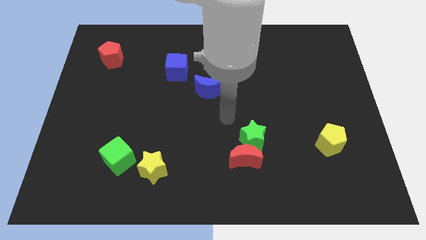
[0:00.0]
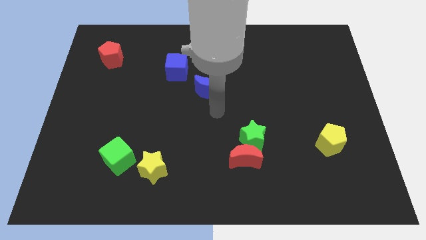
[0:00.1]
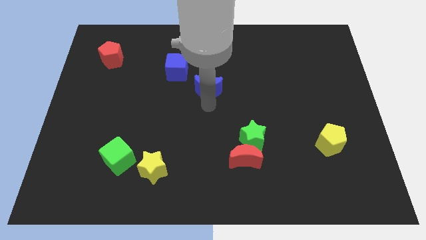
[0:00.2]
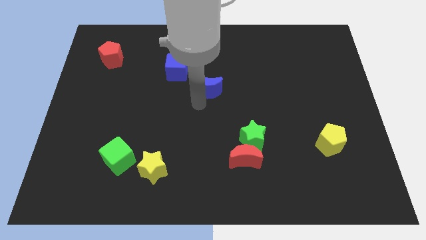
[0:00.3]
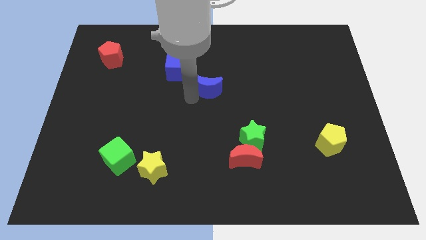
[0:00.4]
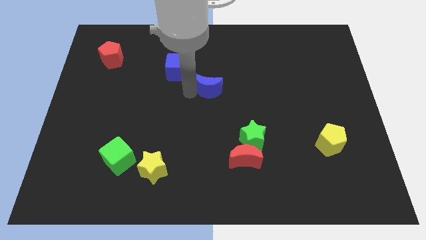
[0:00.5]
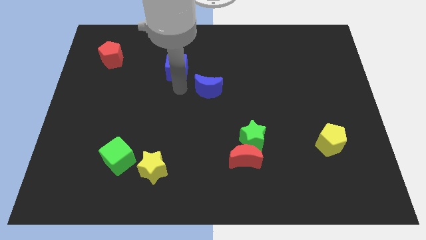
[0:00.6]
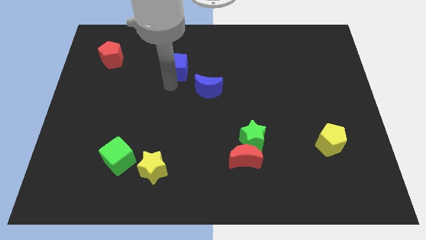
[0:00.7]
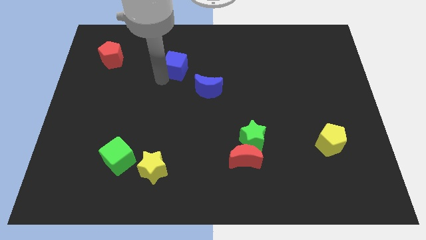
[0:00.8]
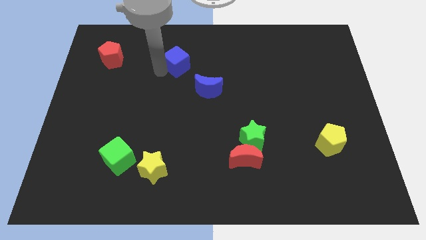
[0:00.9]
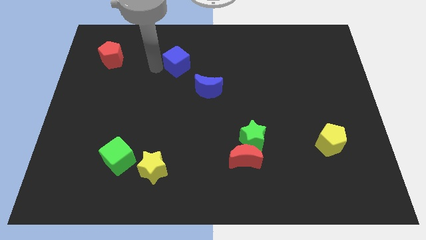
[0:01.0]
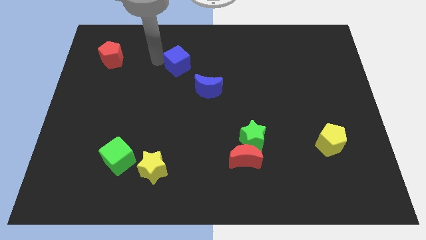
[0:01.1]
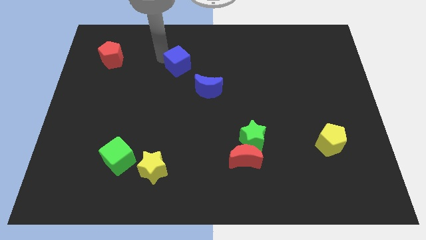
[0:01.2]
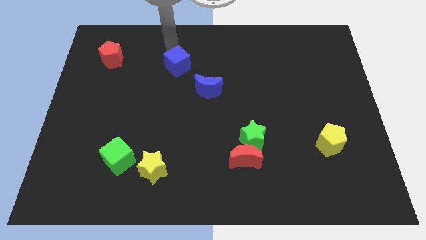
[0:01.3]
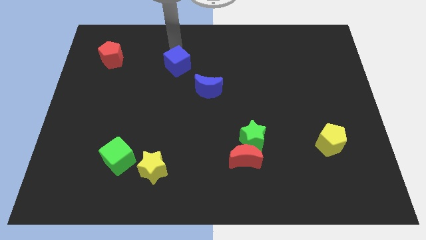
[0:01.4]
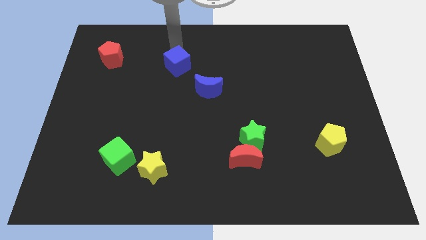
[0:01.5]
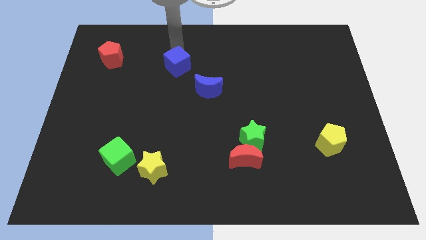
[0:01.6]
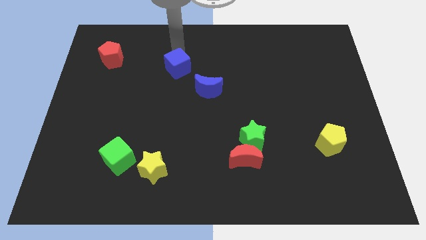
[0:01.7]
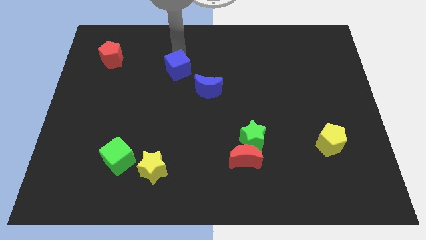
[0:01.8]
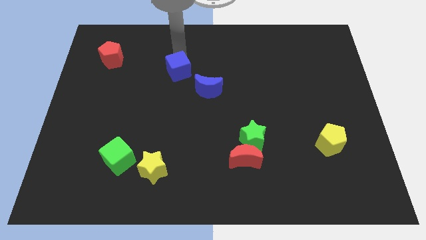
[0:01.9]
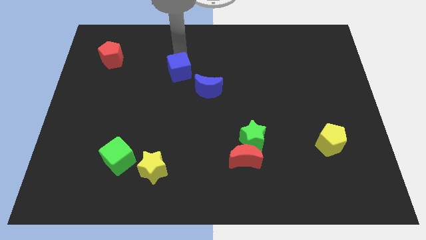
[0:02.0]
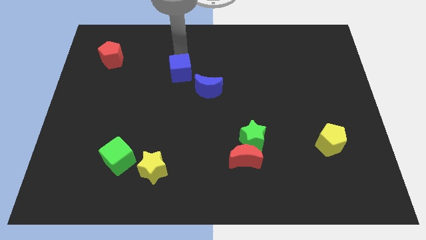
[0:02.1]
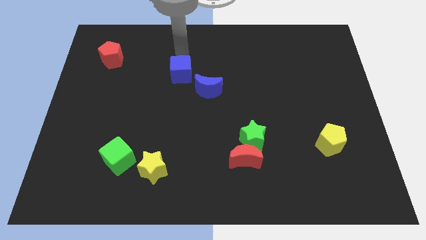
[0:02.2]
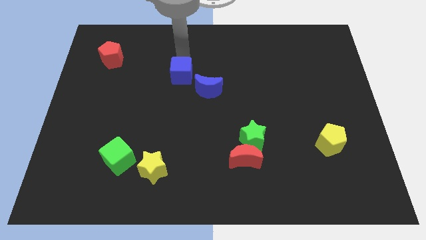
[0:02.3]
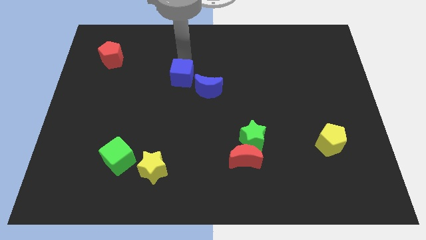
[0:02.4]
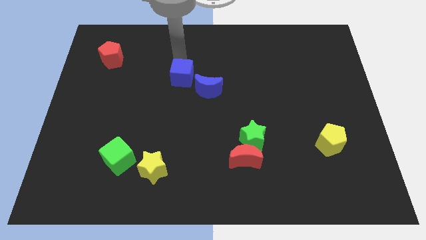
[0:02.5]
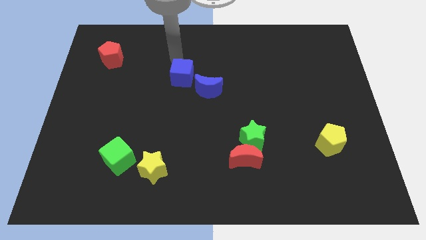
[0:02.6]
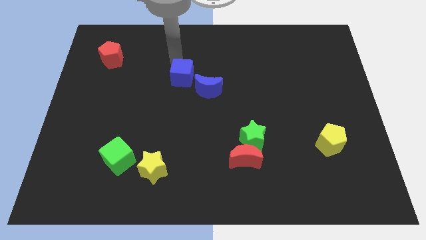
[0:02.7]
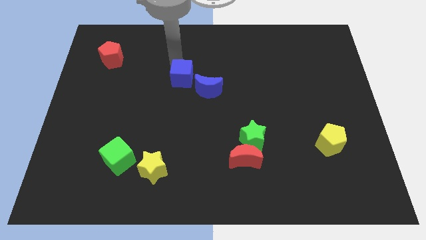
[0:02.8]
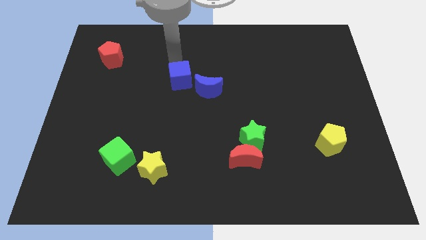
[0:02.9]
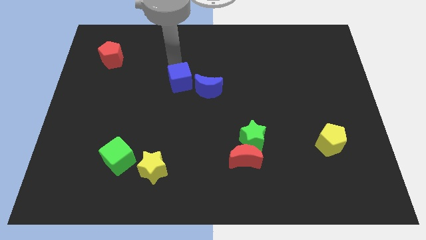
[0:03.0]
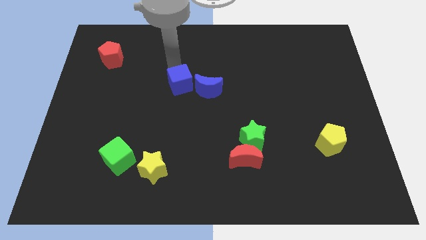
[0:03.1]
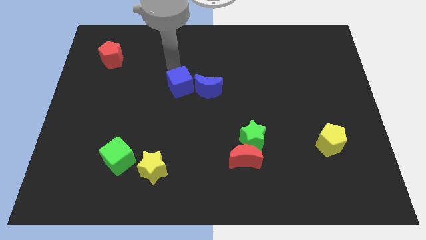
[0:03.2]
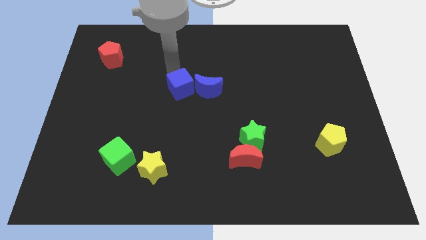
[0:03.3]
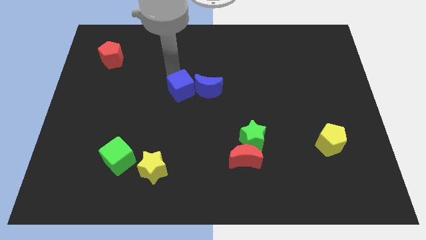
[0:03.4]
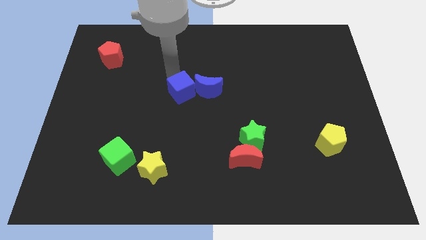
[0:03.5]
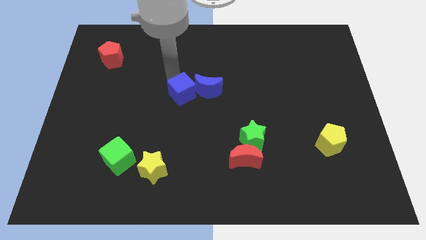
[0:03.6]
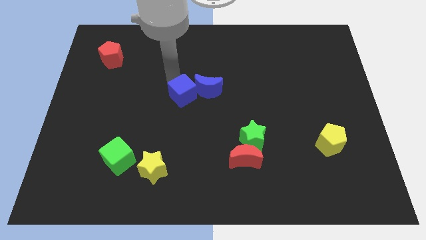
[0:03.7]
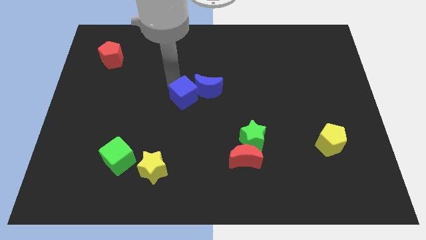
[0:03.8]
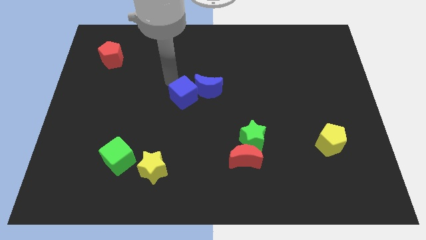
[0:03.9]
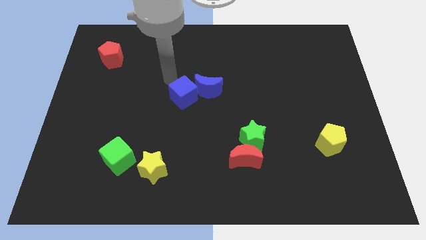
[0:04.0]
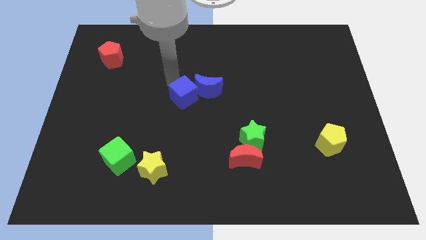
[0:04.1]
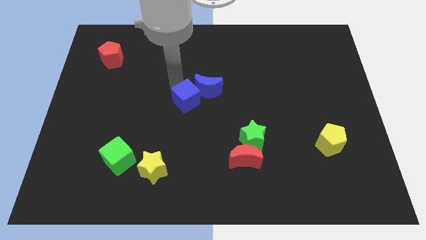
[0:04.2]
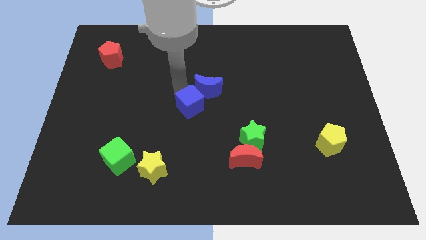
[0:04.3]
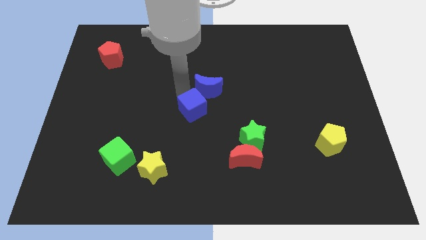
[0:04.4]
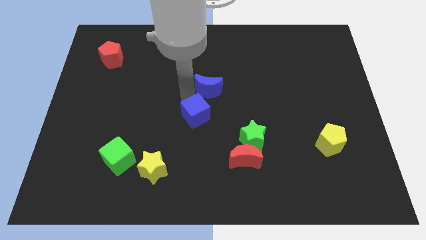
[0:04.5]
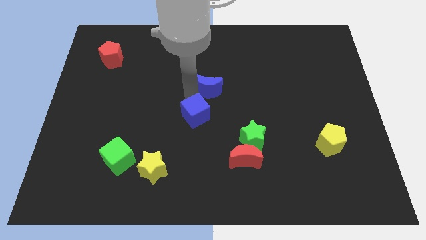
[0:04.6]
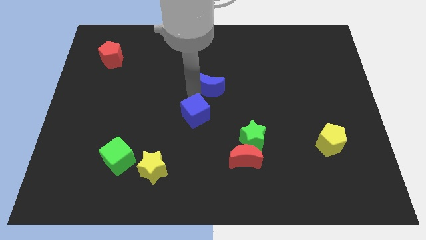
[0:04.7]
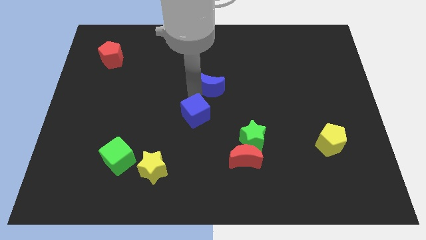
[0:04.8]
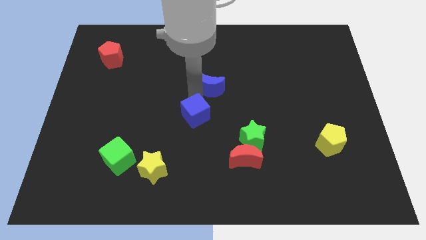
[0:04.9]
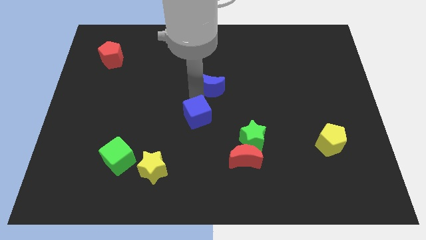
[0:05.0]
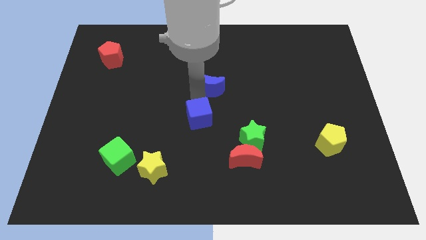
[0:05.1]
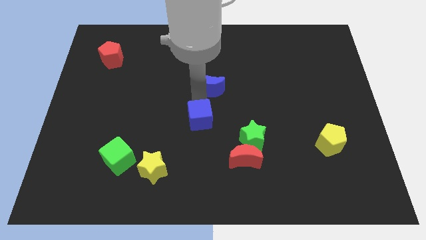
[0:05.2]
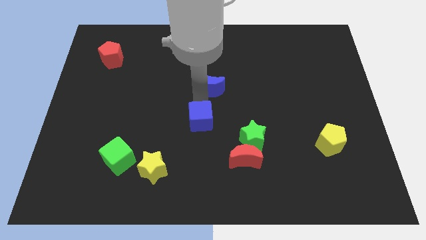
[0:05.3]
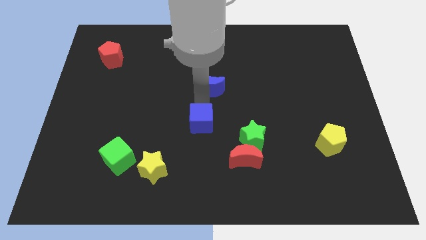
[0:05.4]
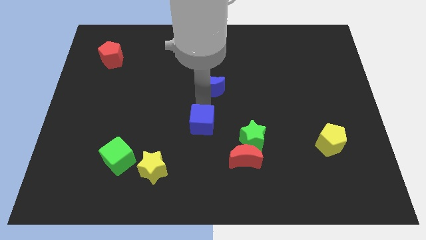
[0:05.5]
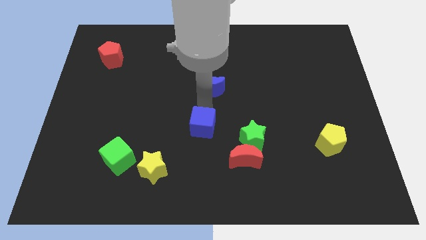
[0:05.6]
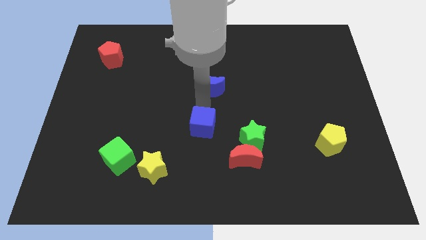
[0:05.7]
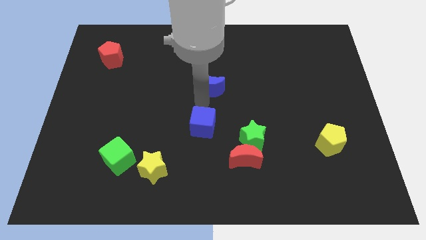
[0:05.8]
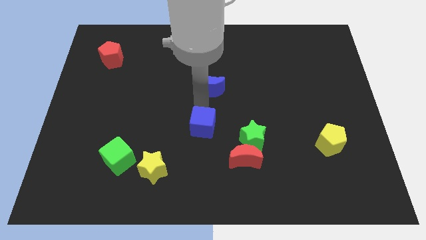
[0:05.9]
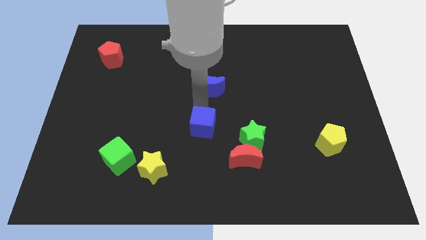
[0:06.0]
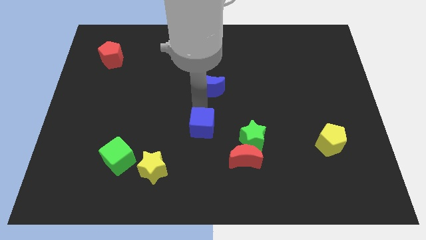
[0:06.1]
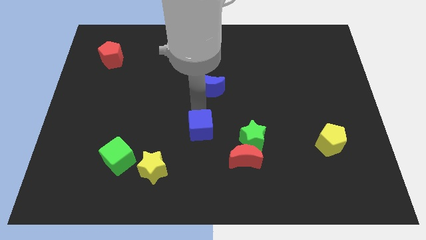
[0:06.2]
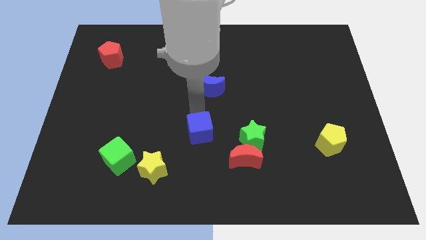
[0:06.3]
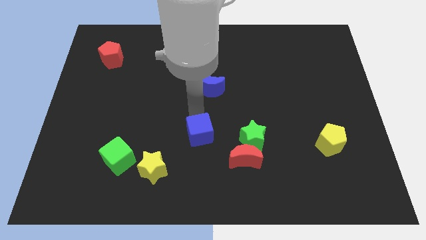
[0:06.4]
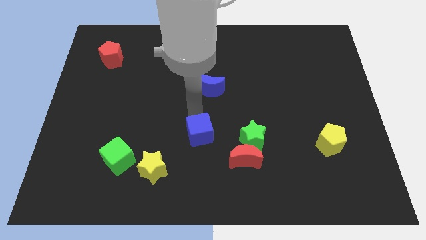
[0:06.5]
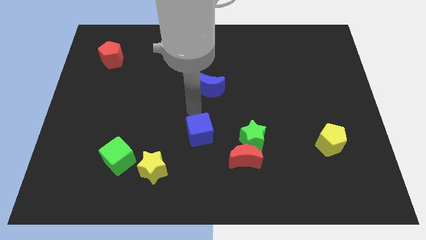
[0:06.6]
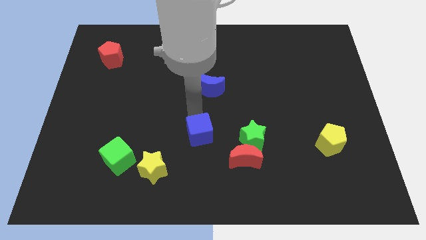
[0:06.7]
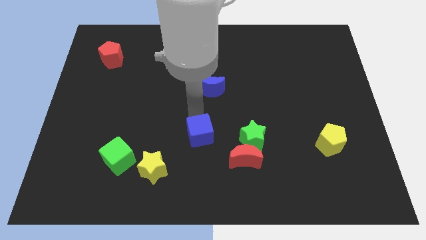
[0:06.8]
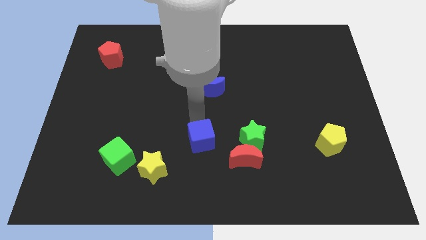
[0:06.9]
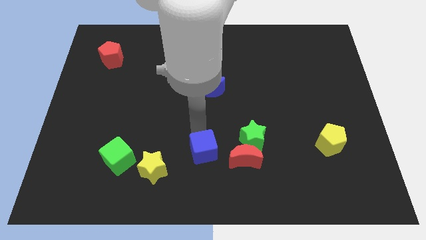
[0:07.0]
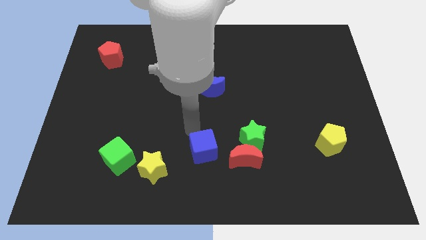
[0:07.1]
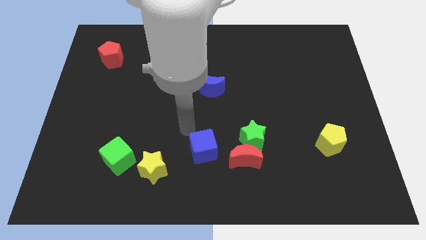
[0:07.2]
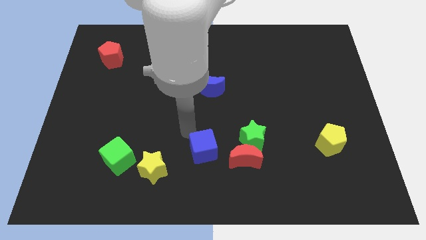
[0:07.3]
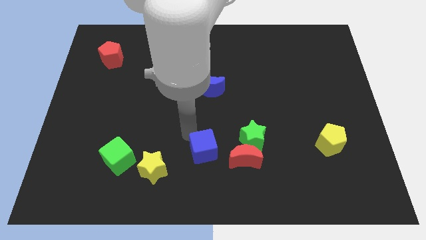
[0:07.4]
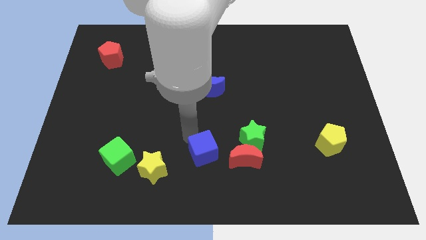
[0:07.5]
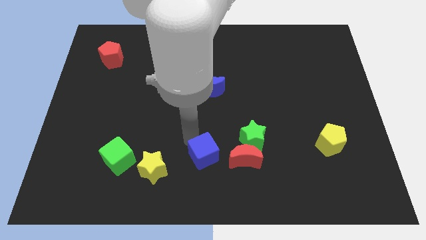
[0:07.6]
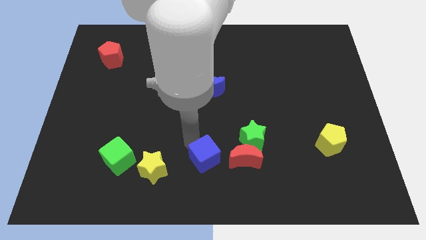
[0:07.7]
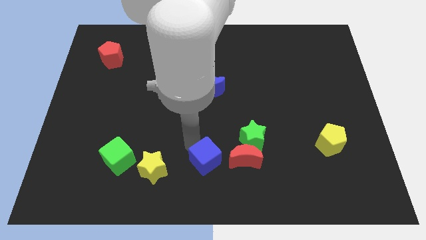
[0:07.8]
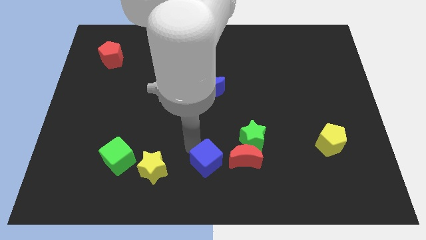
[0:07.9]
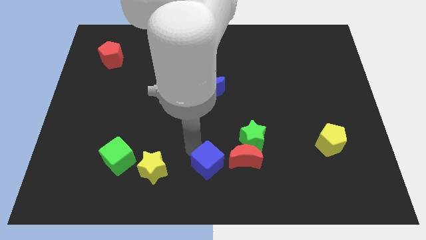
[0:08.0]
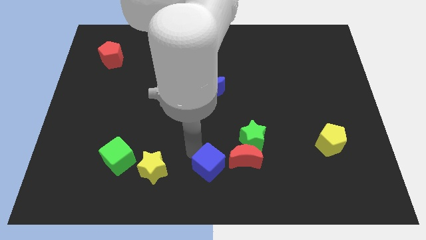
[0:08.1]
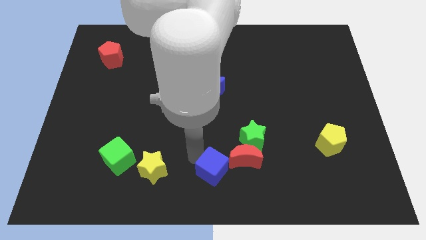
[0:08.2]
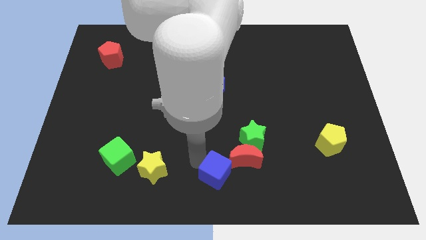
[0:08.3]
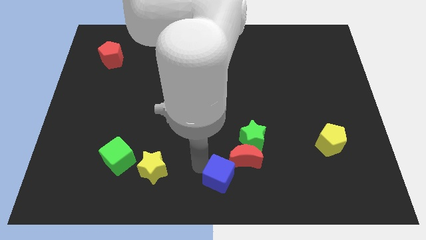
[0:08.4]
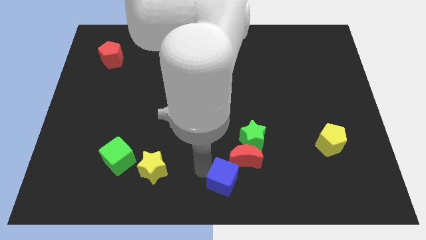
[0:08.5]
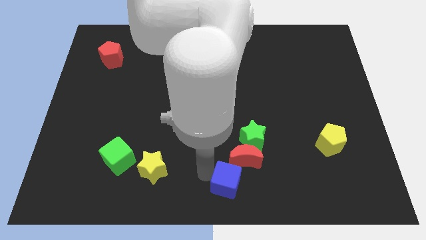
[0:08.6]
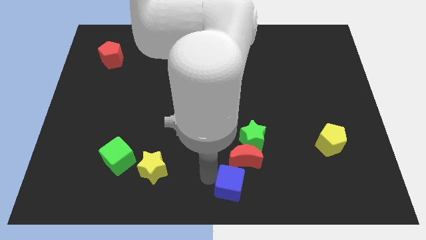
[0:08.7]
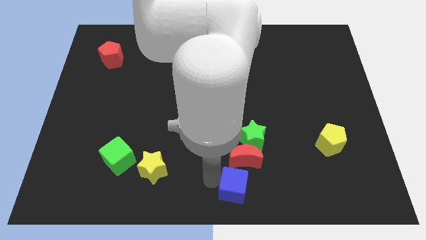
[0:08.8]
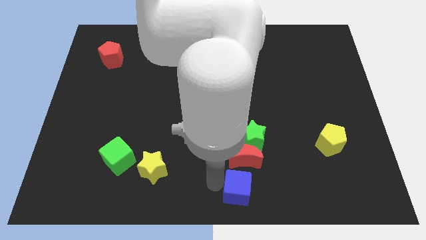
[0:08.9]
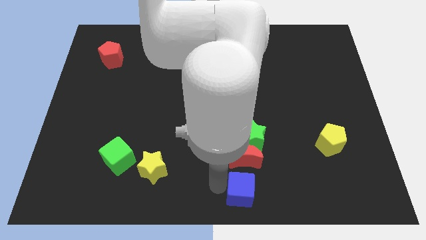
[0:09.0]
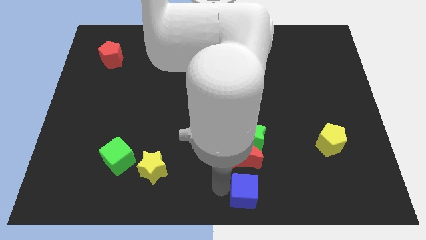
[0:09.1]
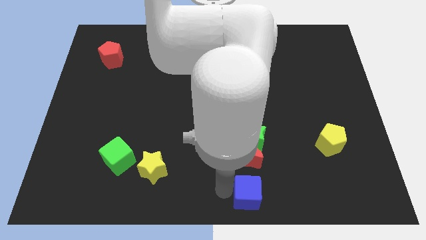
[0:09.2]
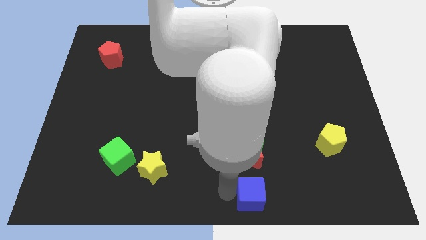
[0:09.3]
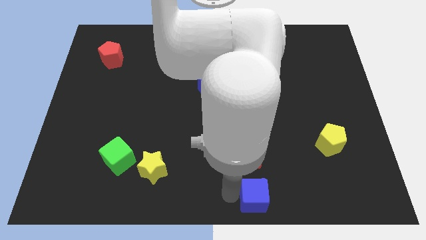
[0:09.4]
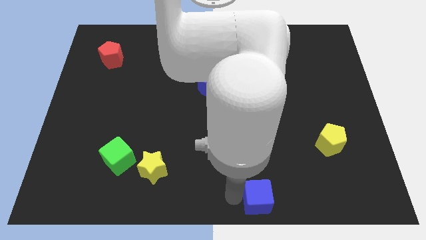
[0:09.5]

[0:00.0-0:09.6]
push the blue cube to the bottom right of the red moon
